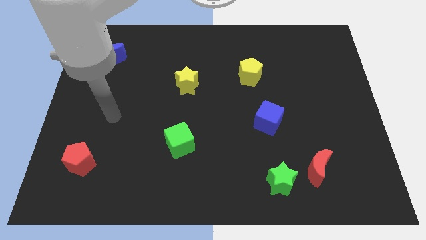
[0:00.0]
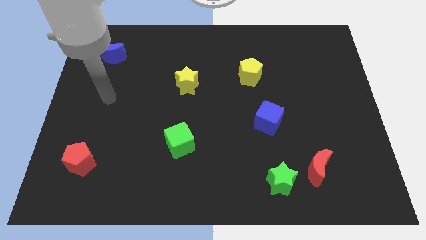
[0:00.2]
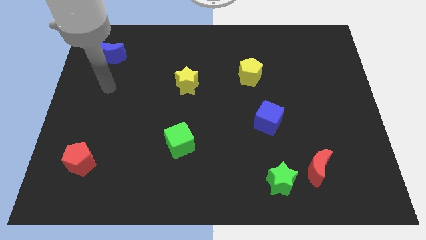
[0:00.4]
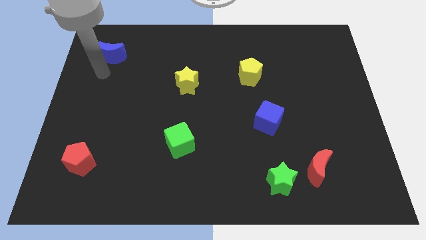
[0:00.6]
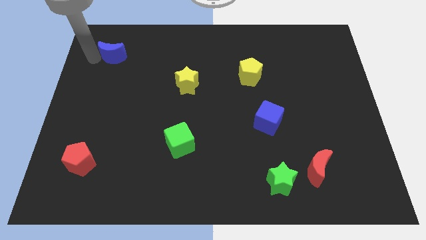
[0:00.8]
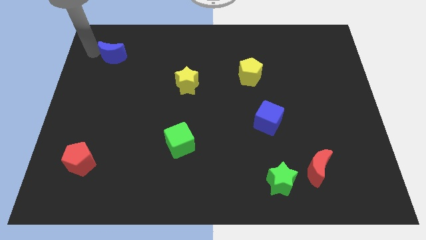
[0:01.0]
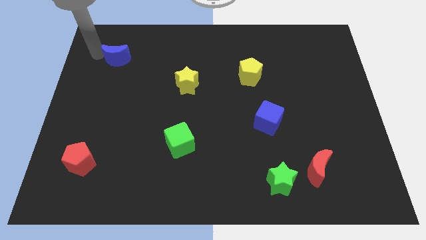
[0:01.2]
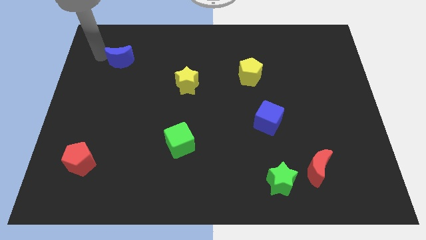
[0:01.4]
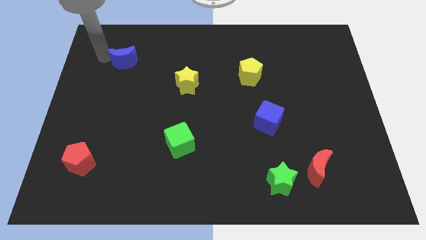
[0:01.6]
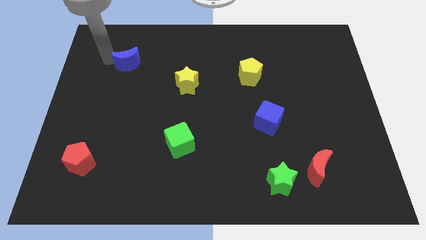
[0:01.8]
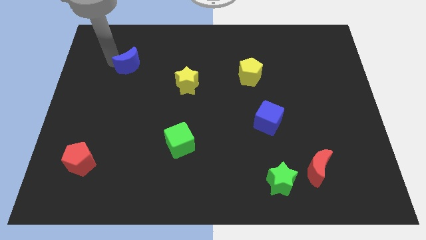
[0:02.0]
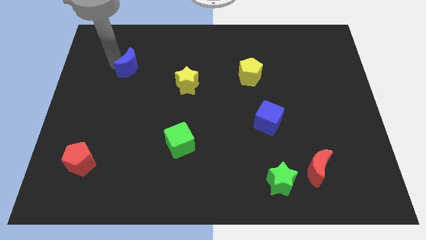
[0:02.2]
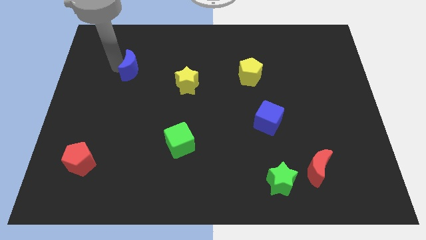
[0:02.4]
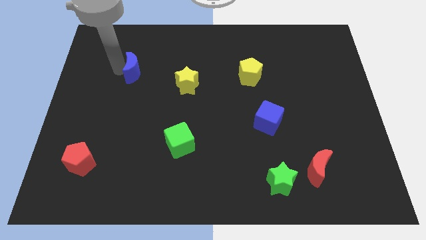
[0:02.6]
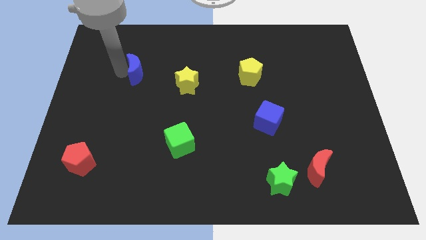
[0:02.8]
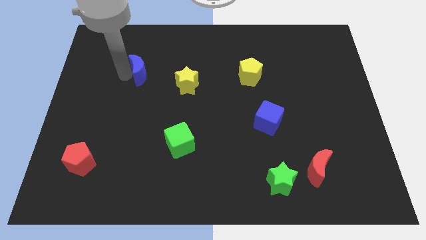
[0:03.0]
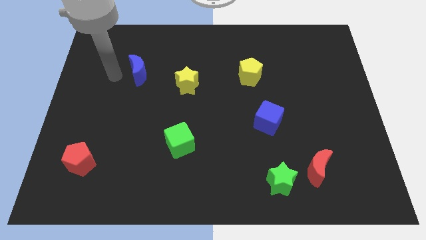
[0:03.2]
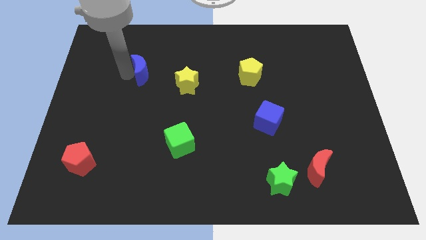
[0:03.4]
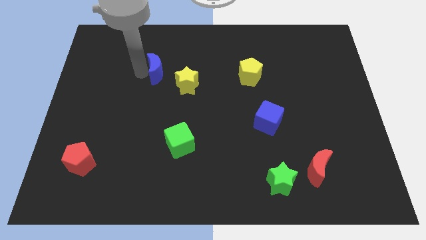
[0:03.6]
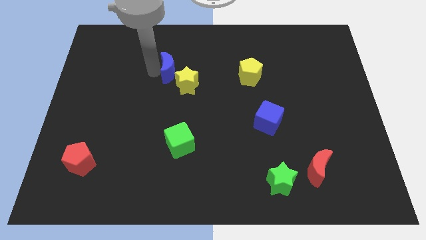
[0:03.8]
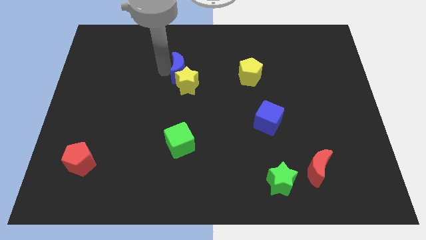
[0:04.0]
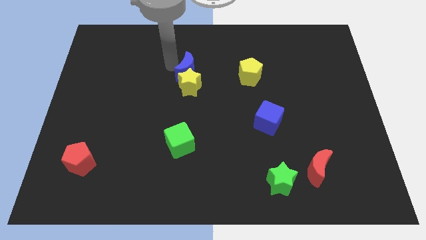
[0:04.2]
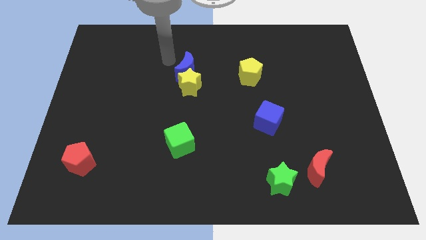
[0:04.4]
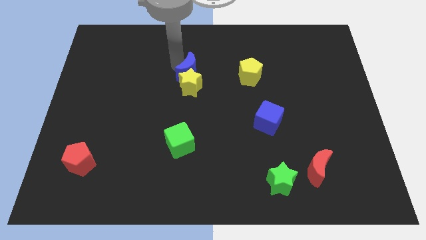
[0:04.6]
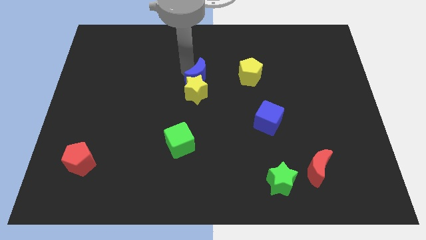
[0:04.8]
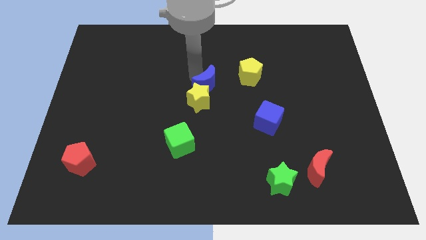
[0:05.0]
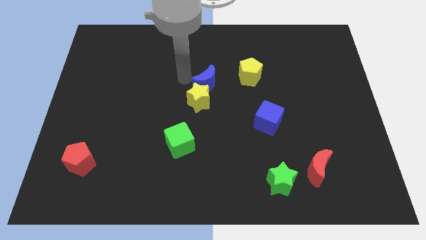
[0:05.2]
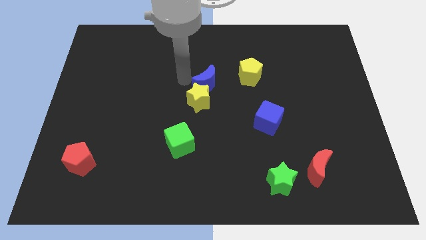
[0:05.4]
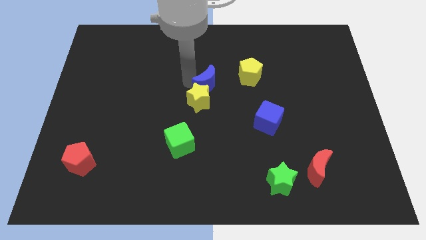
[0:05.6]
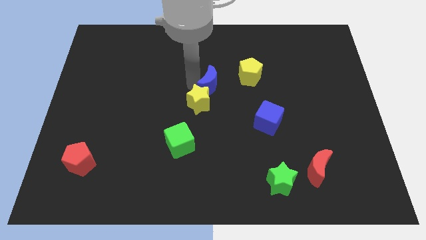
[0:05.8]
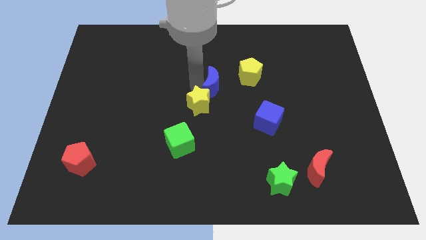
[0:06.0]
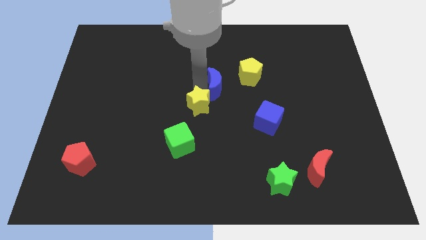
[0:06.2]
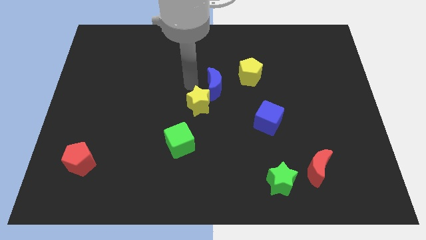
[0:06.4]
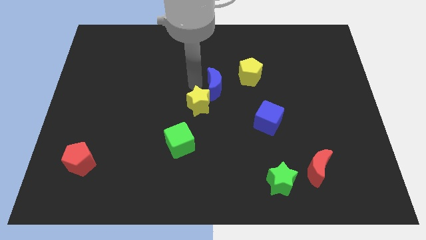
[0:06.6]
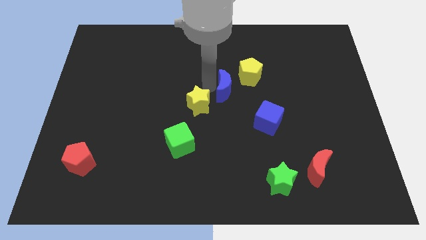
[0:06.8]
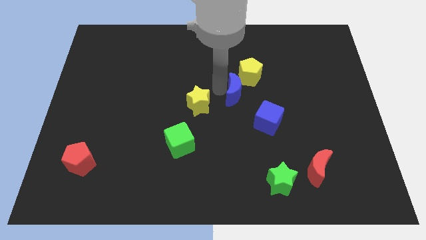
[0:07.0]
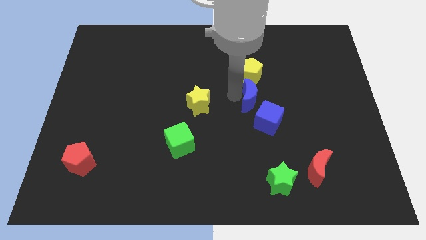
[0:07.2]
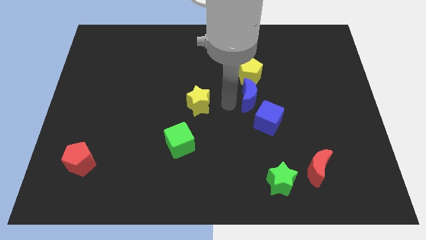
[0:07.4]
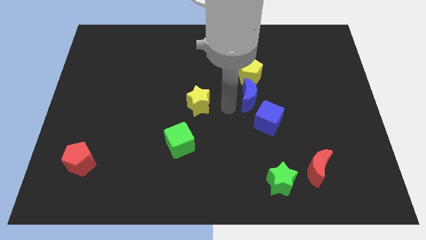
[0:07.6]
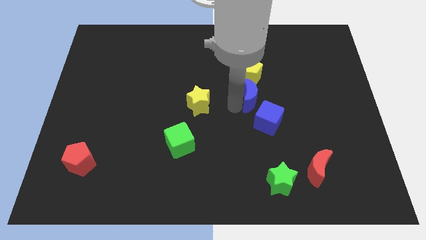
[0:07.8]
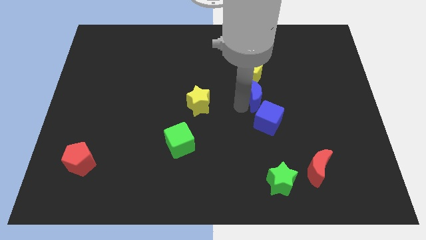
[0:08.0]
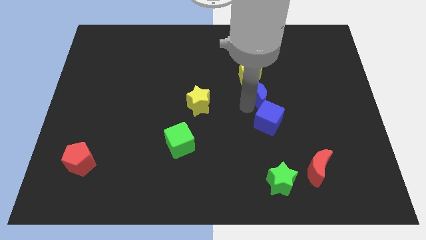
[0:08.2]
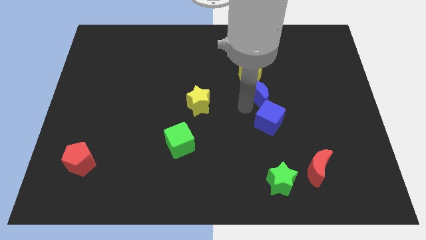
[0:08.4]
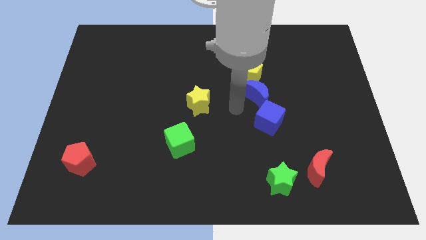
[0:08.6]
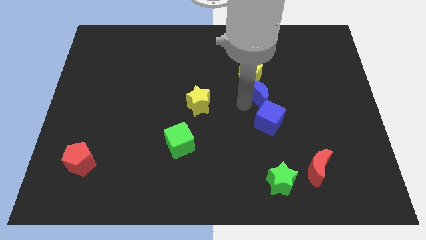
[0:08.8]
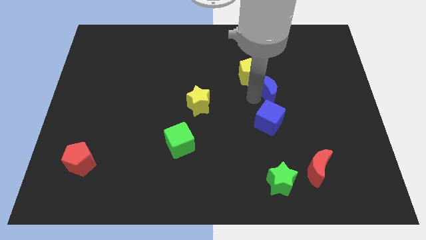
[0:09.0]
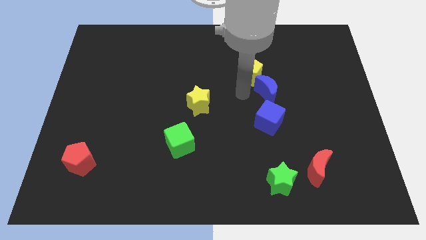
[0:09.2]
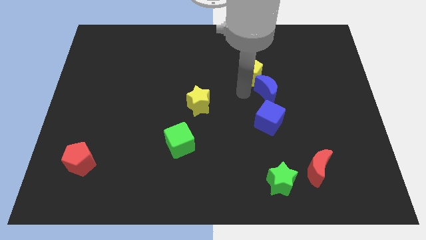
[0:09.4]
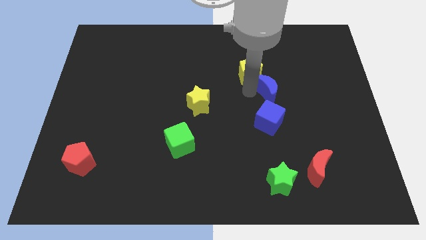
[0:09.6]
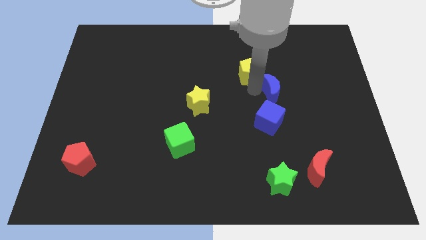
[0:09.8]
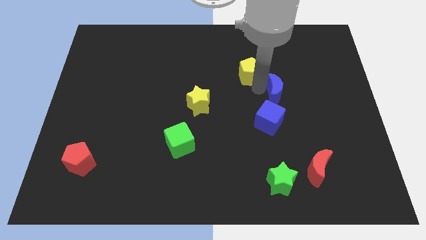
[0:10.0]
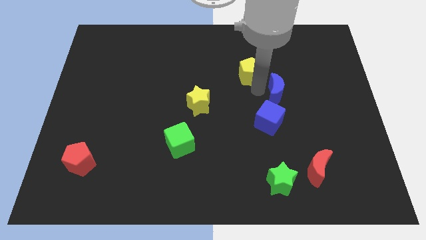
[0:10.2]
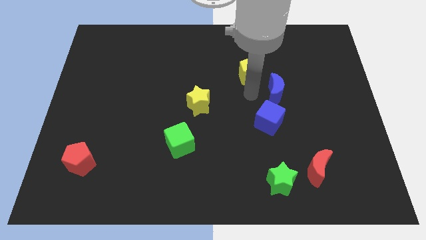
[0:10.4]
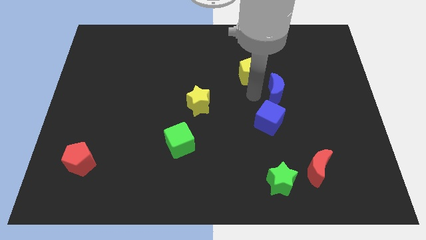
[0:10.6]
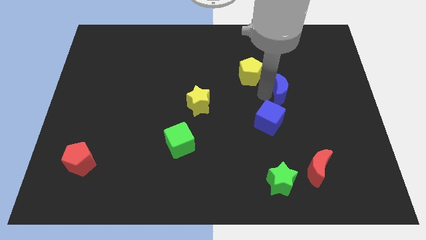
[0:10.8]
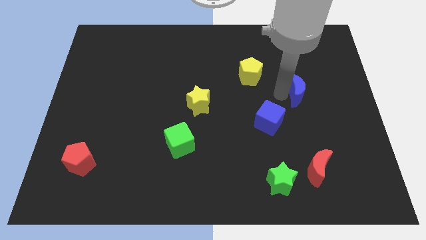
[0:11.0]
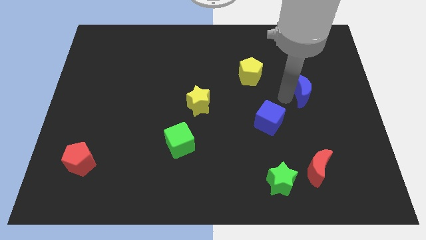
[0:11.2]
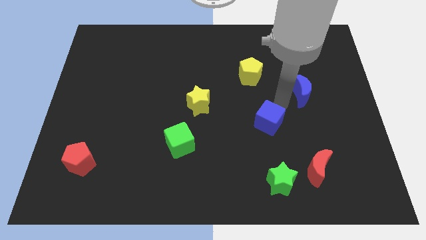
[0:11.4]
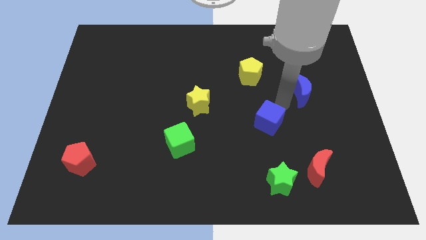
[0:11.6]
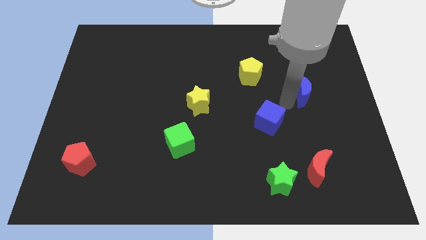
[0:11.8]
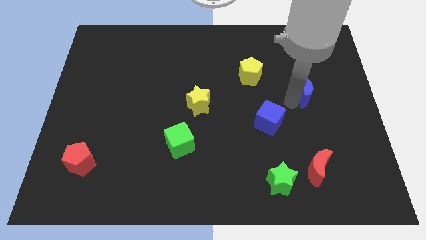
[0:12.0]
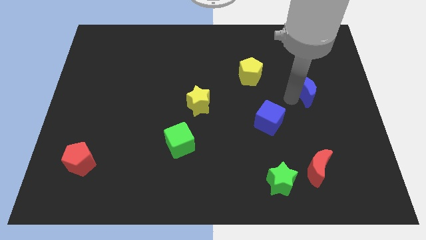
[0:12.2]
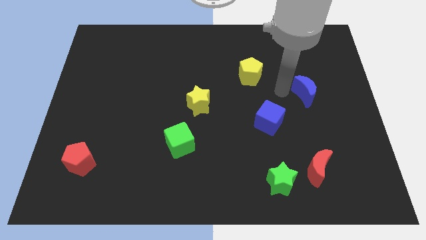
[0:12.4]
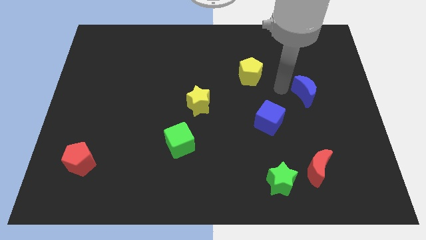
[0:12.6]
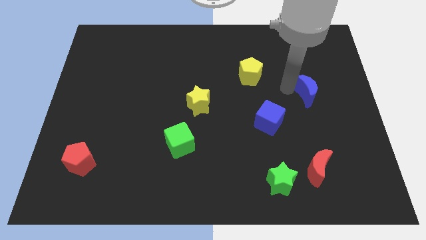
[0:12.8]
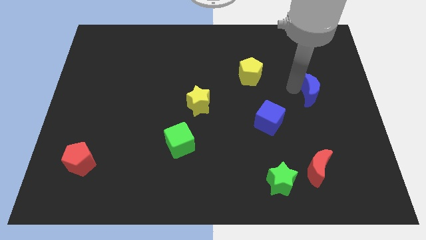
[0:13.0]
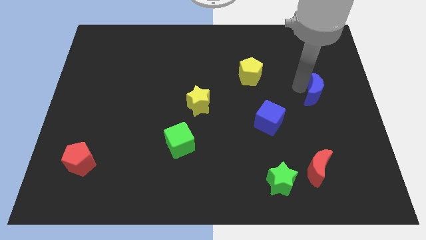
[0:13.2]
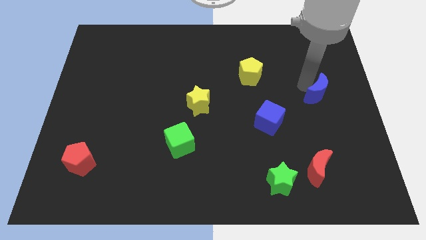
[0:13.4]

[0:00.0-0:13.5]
slide the blue moon to the right side
